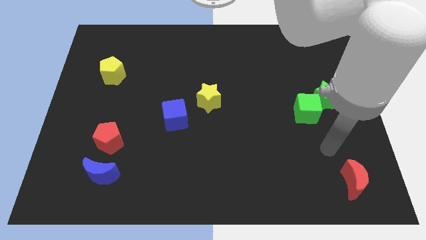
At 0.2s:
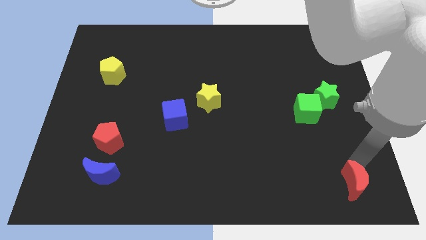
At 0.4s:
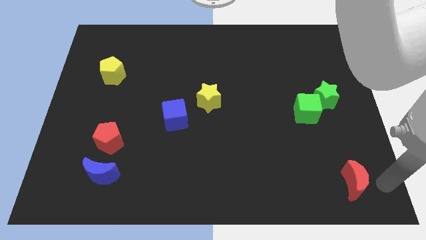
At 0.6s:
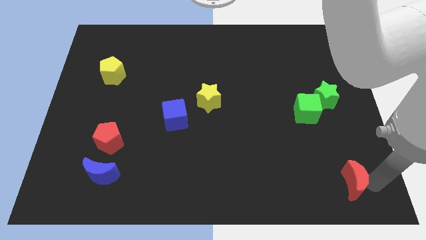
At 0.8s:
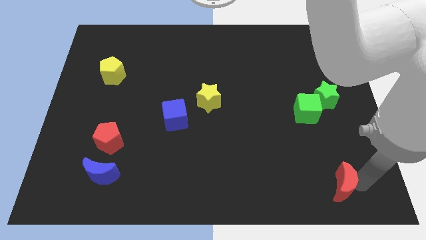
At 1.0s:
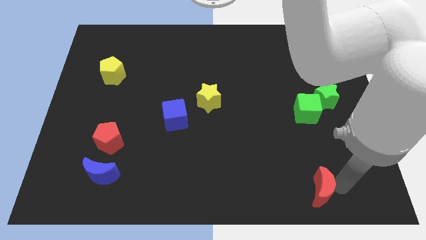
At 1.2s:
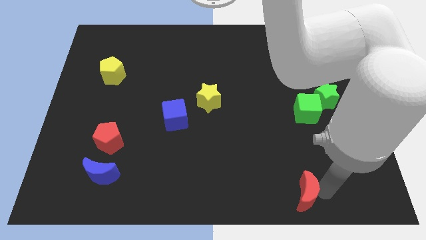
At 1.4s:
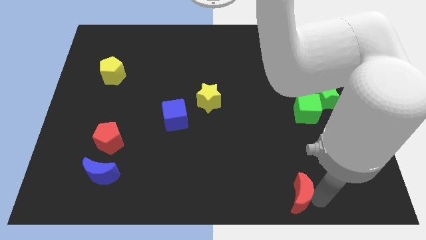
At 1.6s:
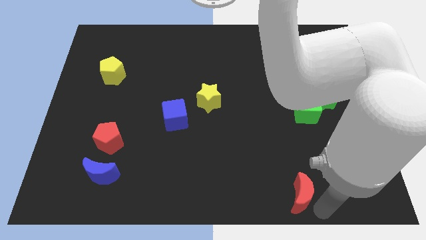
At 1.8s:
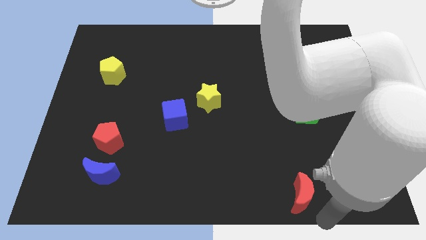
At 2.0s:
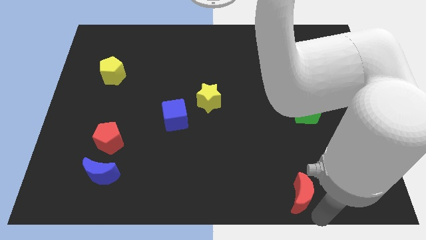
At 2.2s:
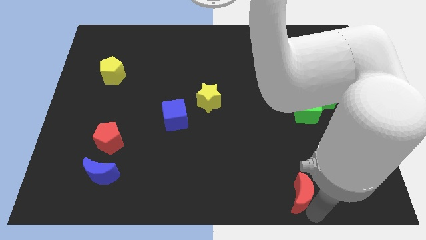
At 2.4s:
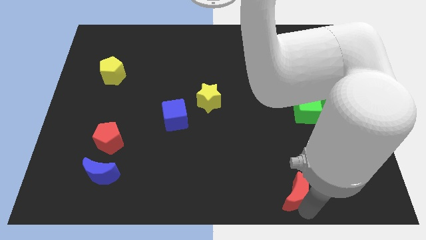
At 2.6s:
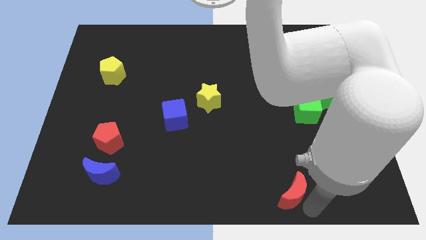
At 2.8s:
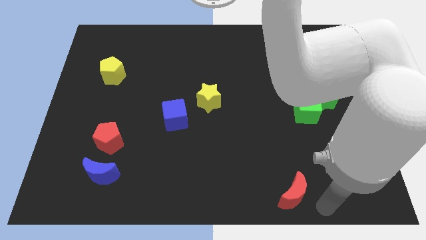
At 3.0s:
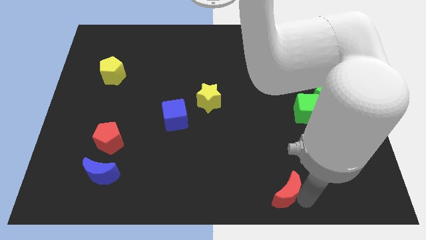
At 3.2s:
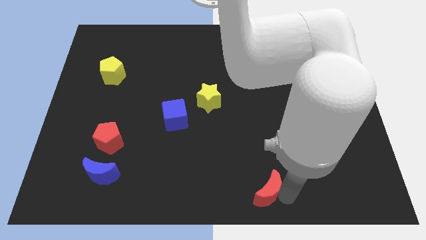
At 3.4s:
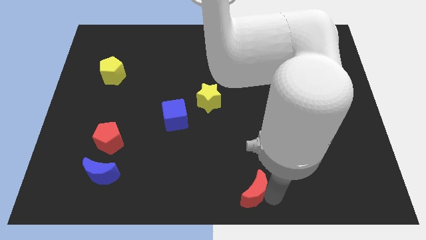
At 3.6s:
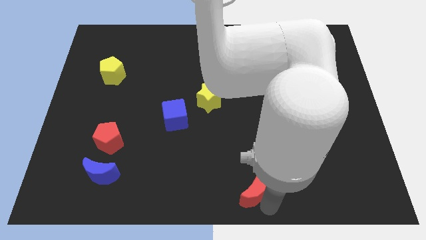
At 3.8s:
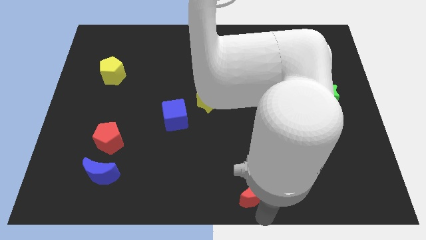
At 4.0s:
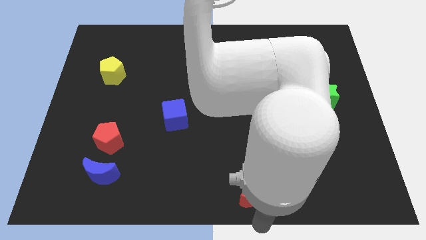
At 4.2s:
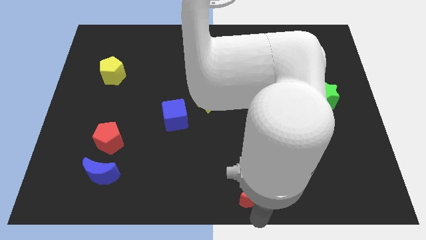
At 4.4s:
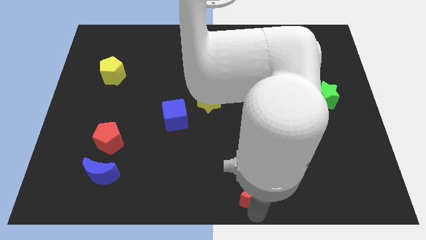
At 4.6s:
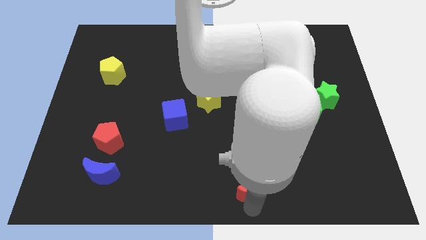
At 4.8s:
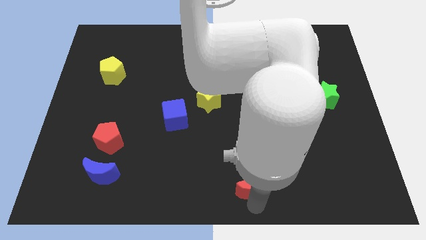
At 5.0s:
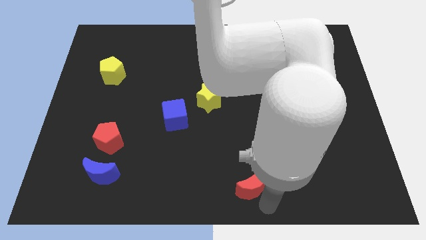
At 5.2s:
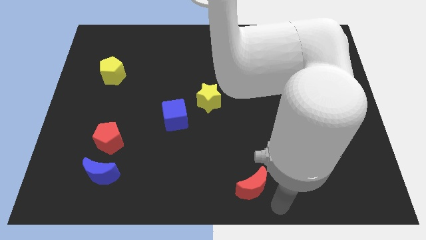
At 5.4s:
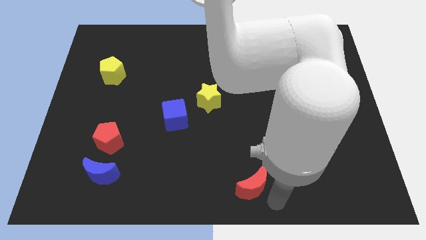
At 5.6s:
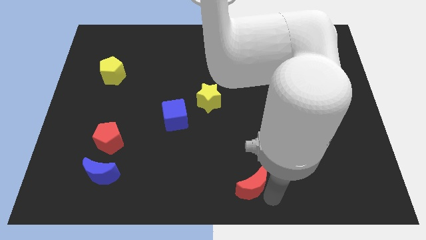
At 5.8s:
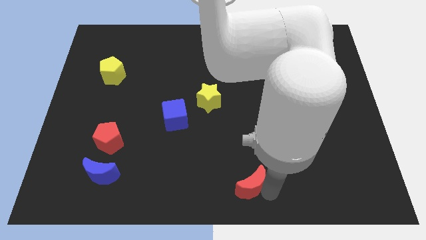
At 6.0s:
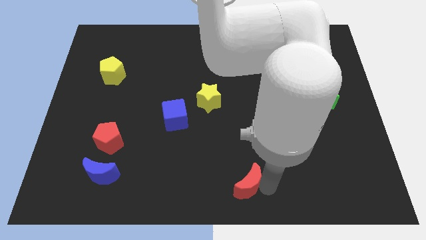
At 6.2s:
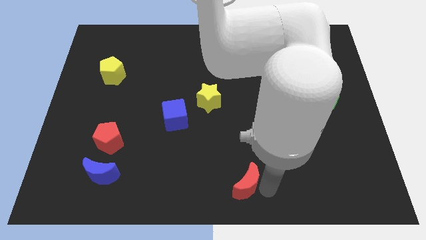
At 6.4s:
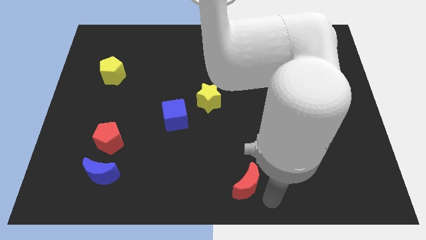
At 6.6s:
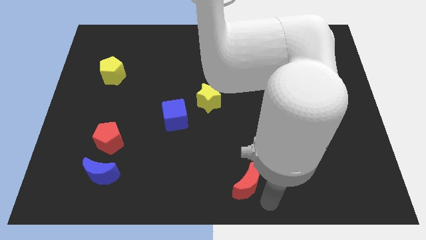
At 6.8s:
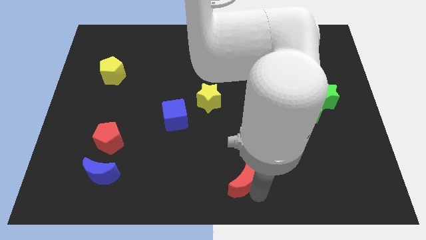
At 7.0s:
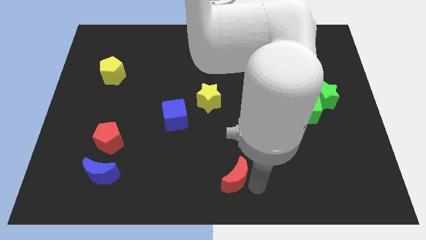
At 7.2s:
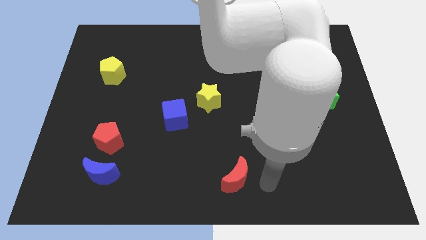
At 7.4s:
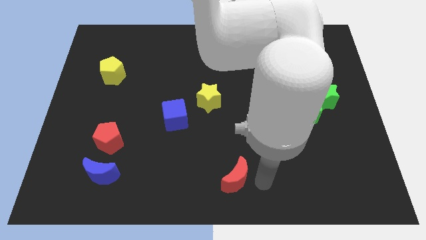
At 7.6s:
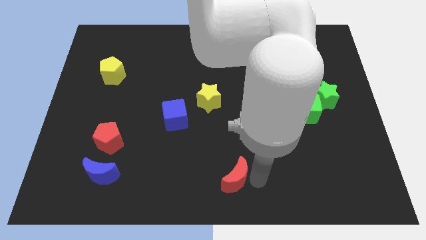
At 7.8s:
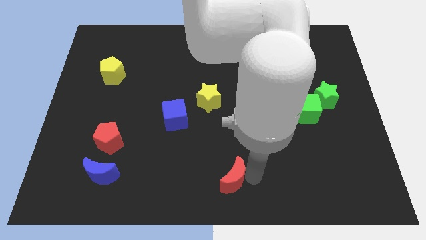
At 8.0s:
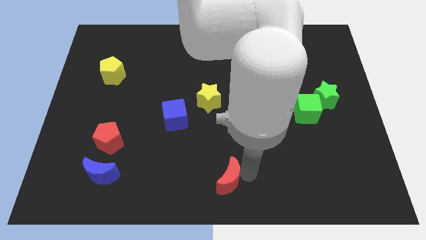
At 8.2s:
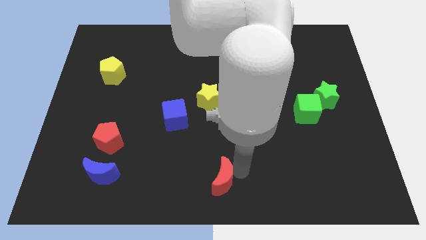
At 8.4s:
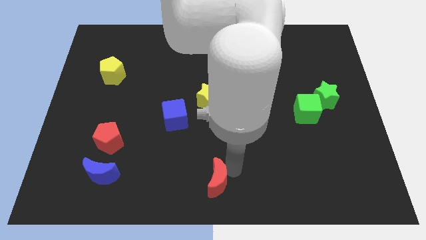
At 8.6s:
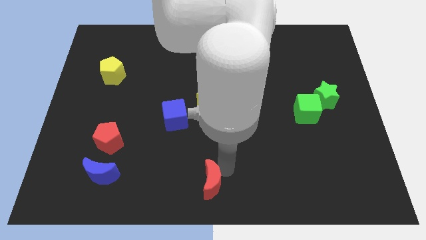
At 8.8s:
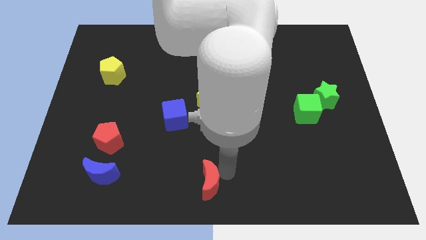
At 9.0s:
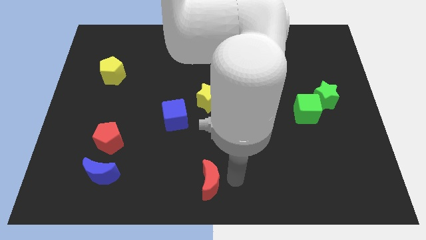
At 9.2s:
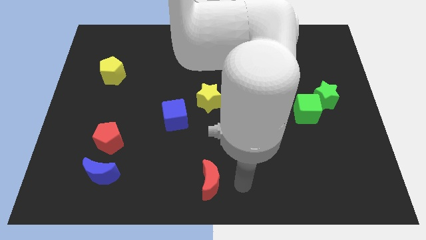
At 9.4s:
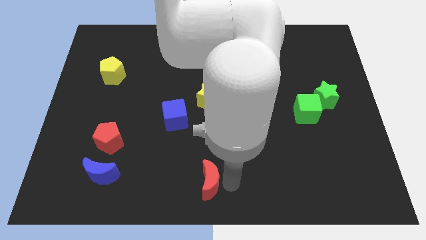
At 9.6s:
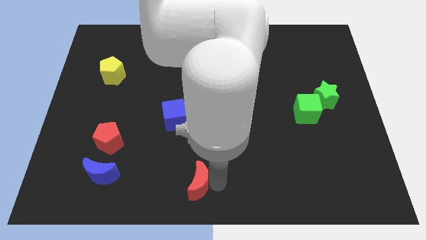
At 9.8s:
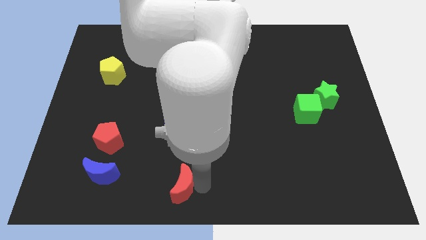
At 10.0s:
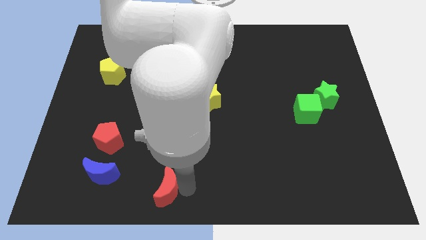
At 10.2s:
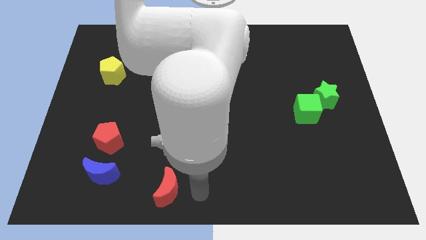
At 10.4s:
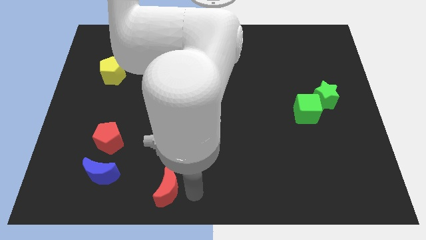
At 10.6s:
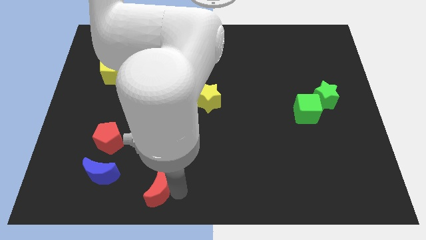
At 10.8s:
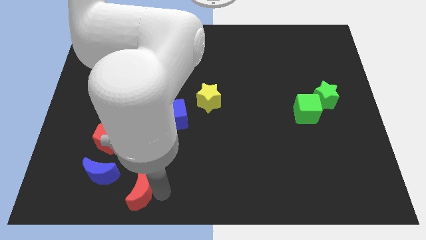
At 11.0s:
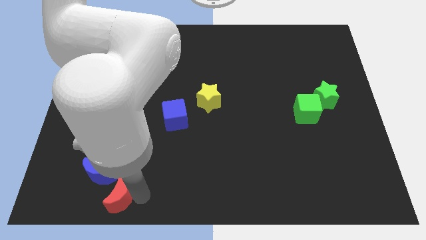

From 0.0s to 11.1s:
slide the red moon to the bottom of the red pentagon

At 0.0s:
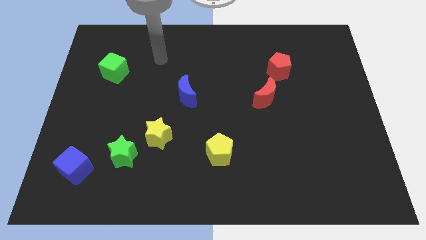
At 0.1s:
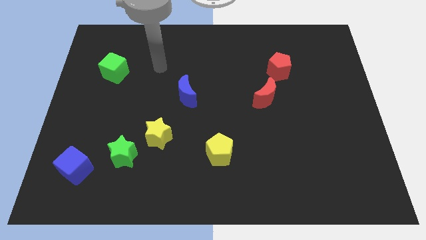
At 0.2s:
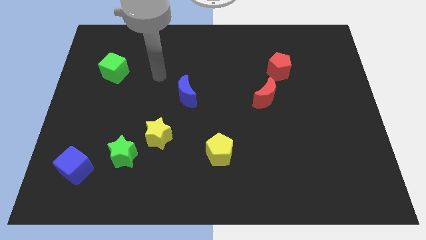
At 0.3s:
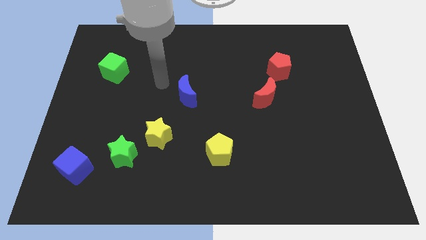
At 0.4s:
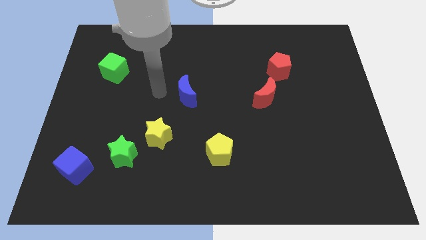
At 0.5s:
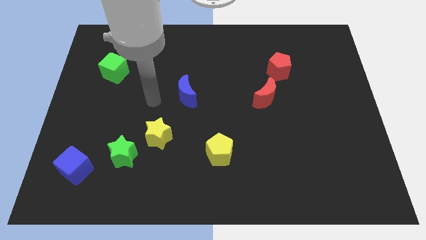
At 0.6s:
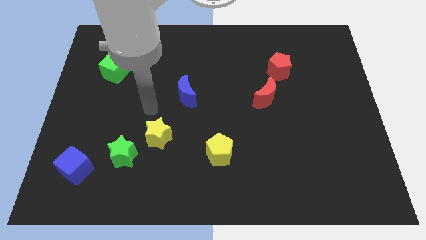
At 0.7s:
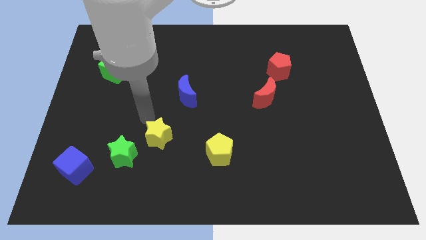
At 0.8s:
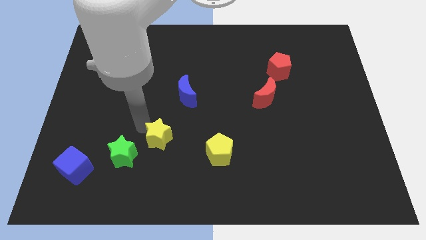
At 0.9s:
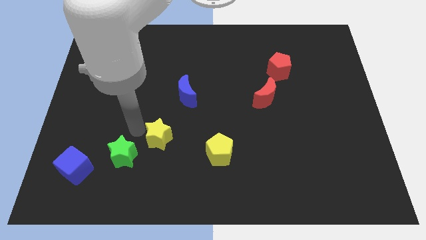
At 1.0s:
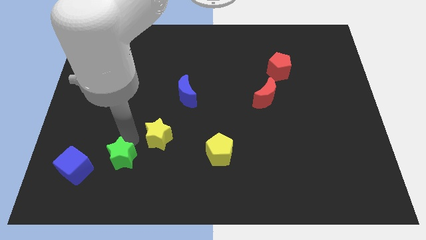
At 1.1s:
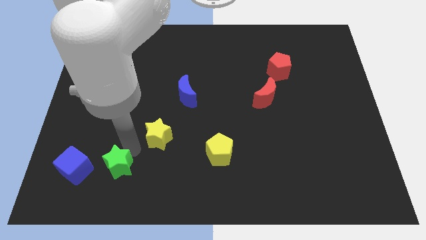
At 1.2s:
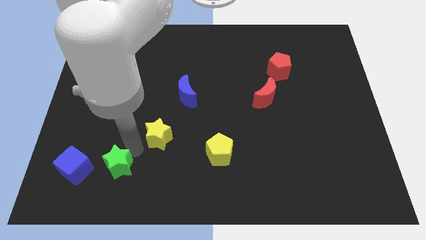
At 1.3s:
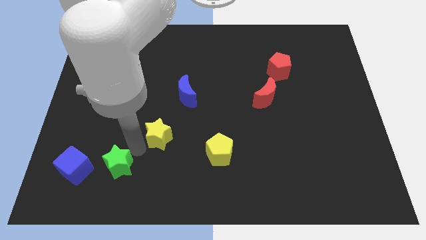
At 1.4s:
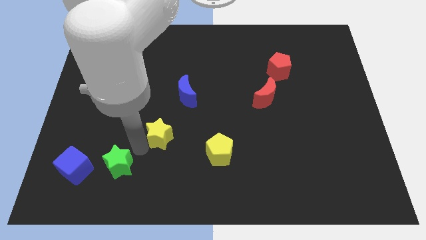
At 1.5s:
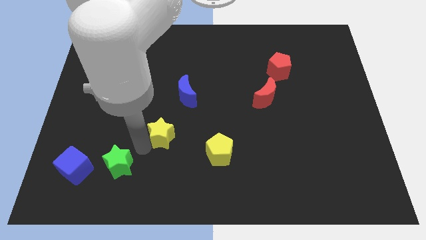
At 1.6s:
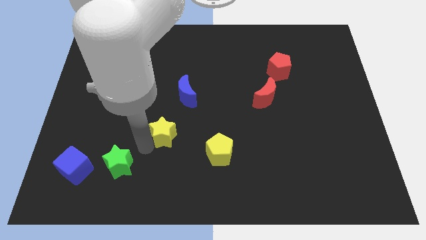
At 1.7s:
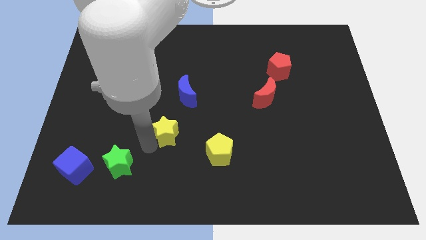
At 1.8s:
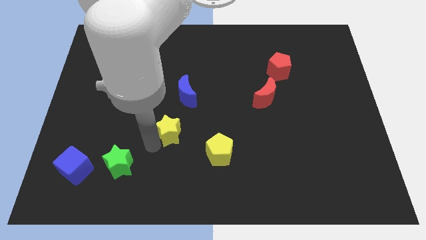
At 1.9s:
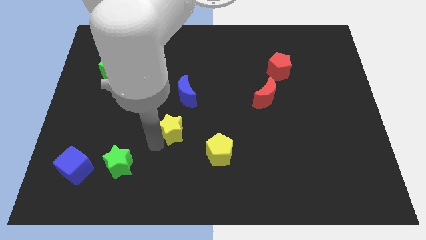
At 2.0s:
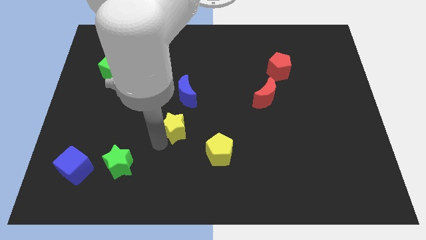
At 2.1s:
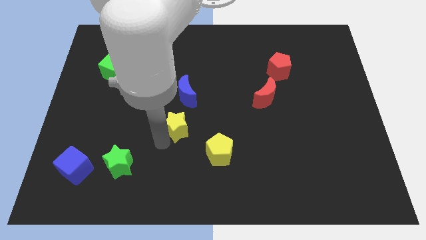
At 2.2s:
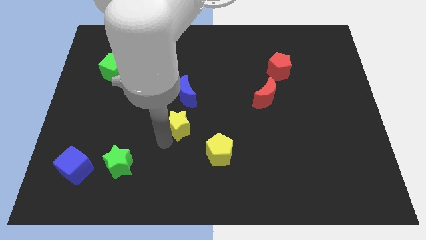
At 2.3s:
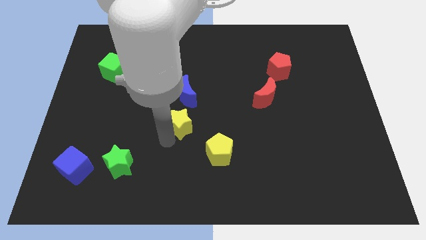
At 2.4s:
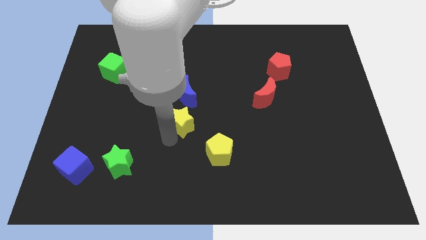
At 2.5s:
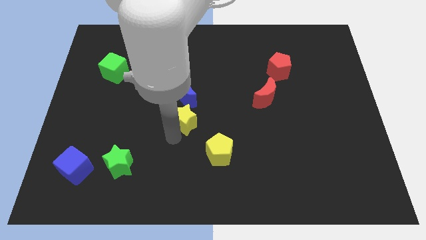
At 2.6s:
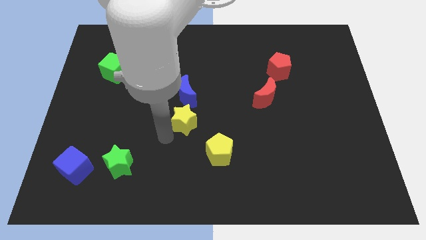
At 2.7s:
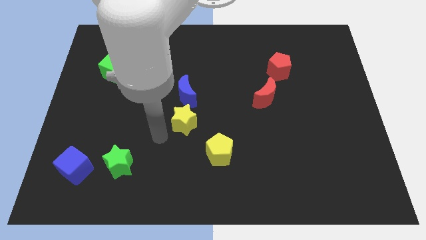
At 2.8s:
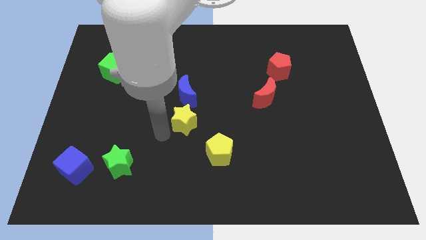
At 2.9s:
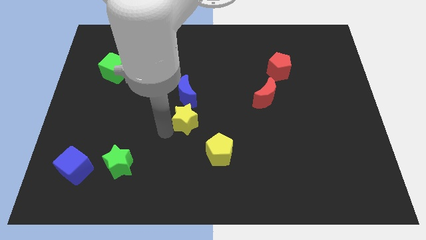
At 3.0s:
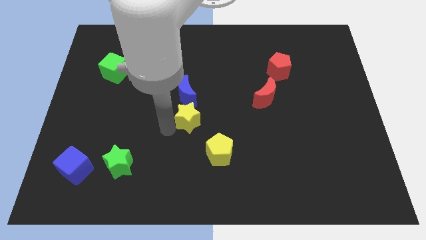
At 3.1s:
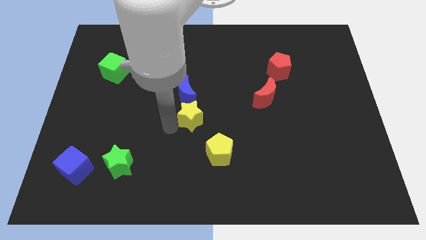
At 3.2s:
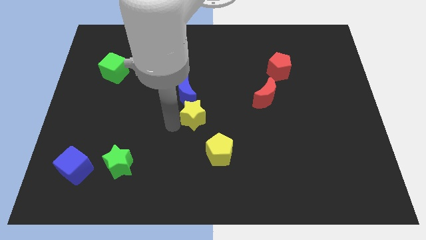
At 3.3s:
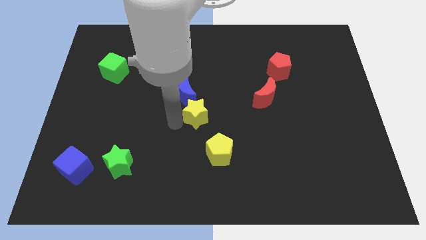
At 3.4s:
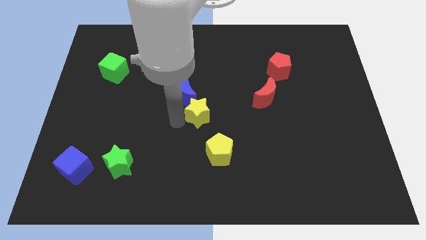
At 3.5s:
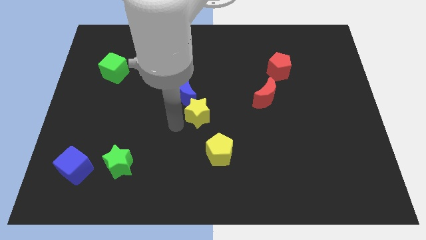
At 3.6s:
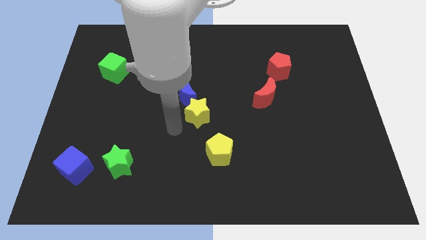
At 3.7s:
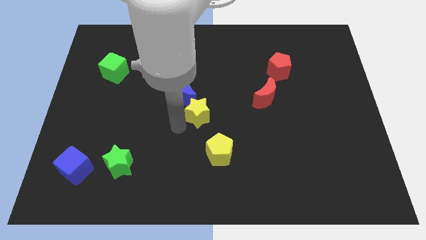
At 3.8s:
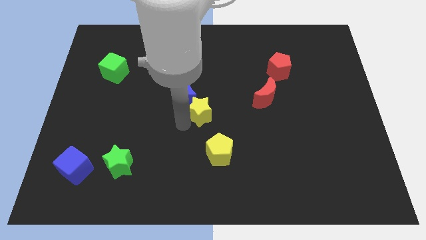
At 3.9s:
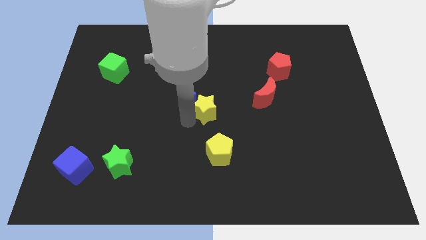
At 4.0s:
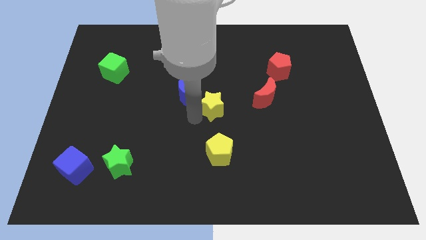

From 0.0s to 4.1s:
move the yellow star just left of the red moon
